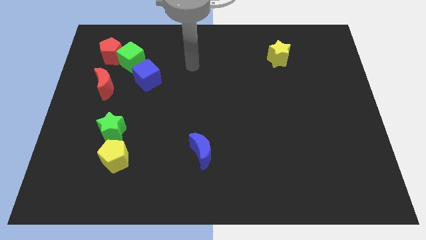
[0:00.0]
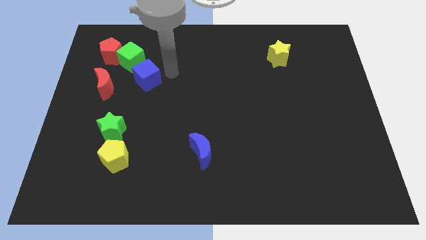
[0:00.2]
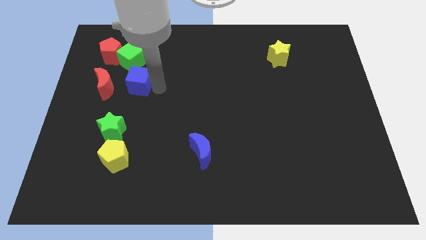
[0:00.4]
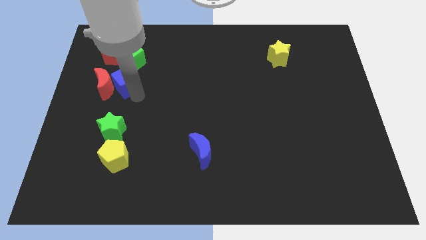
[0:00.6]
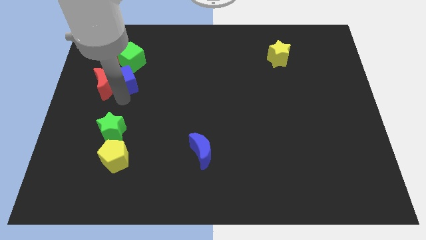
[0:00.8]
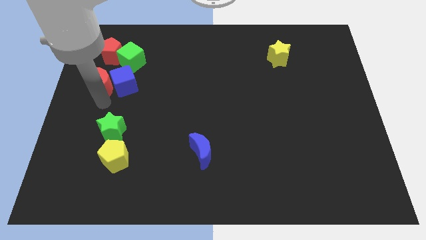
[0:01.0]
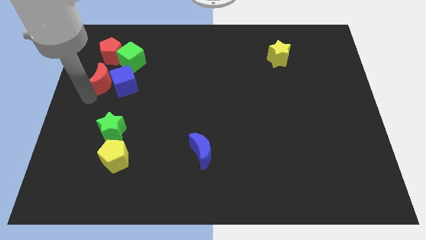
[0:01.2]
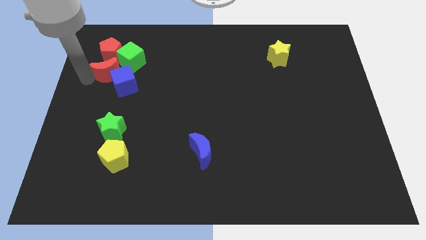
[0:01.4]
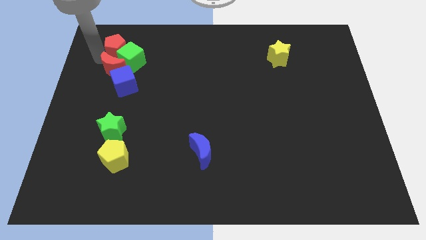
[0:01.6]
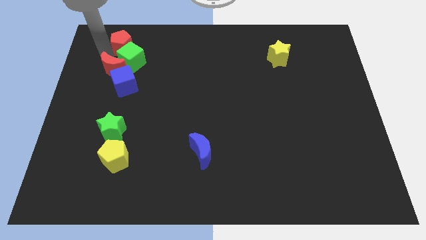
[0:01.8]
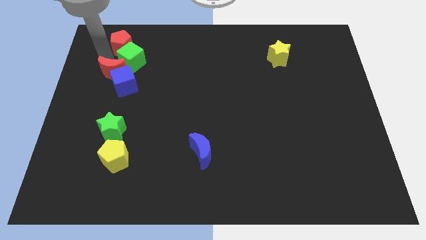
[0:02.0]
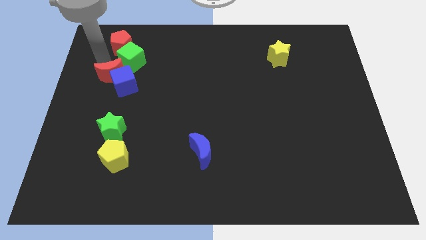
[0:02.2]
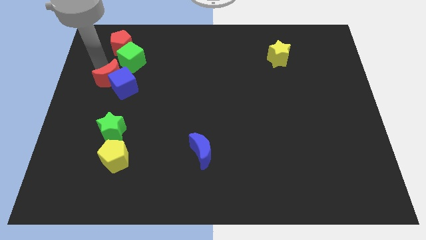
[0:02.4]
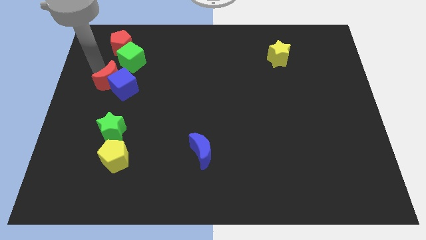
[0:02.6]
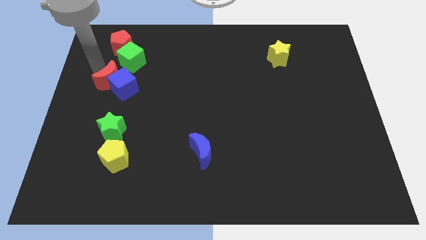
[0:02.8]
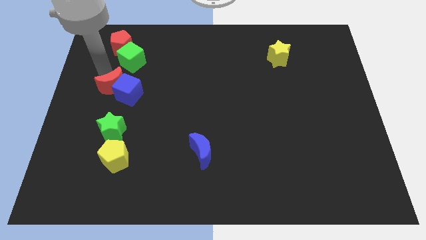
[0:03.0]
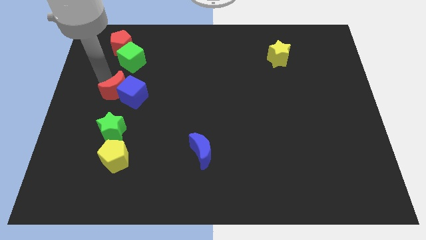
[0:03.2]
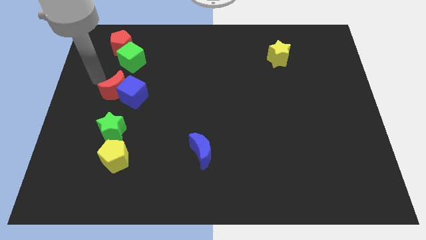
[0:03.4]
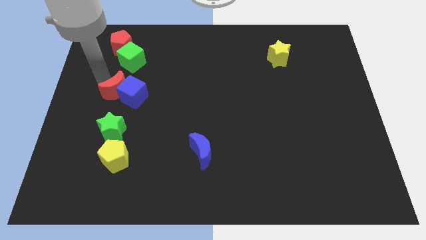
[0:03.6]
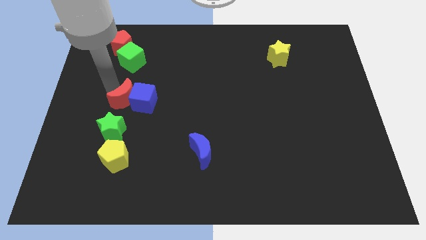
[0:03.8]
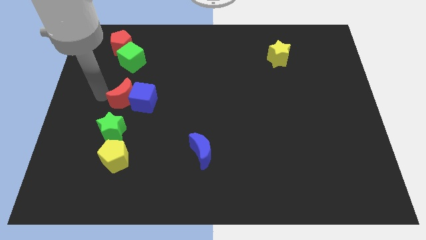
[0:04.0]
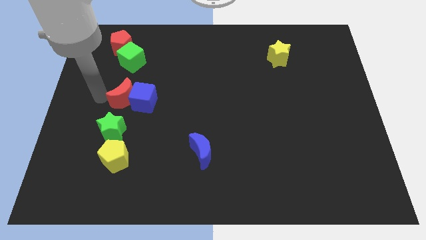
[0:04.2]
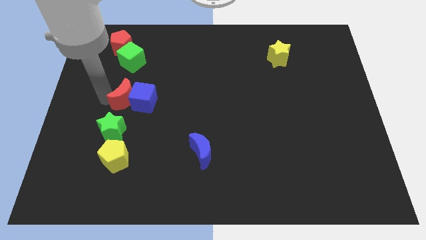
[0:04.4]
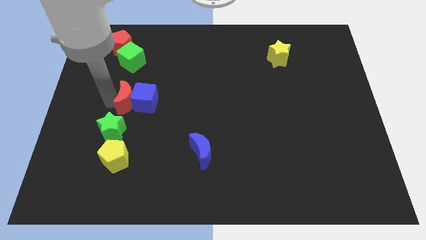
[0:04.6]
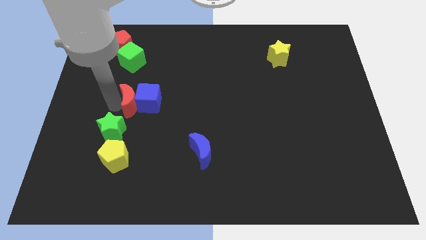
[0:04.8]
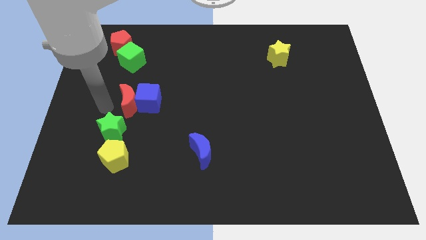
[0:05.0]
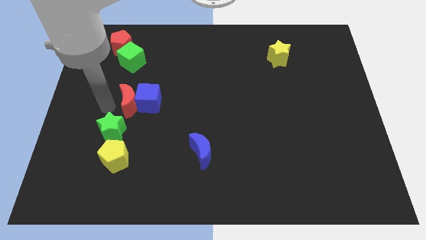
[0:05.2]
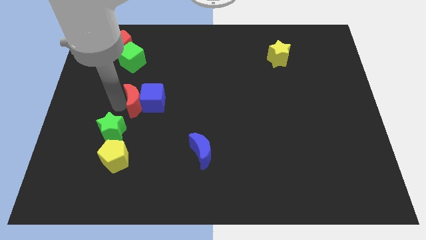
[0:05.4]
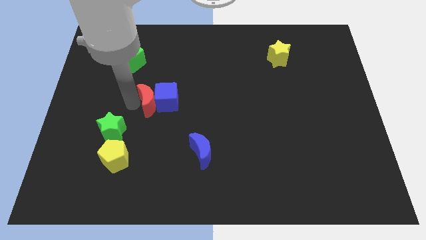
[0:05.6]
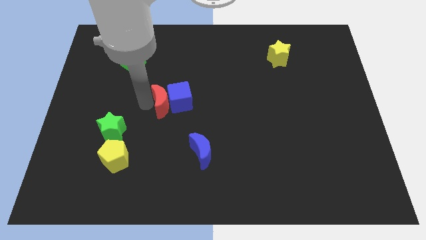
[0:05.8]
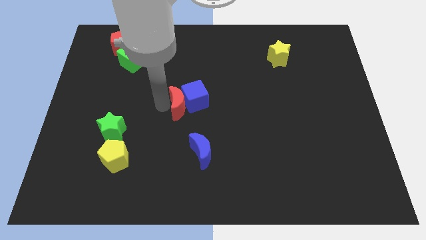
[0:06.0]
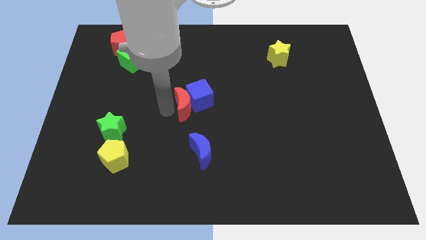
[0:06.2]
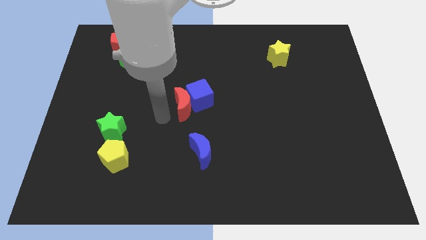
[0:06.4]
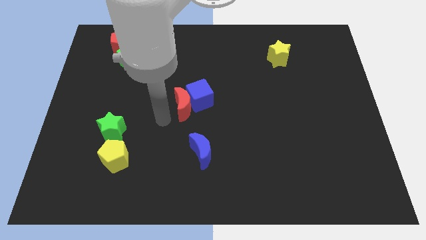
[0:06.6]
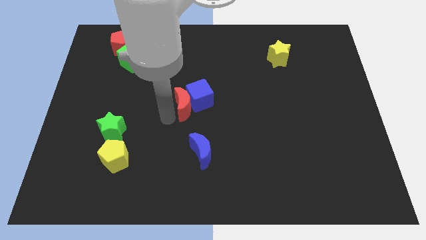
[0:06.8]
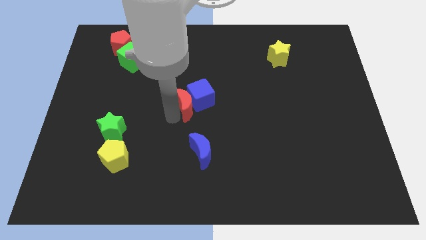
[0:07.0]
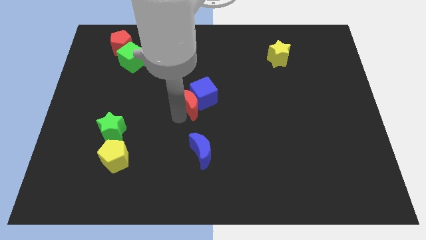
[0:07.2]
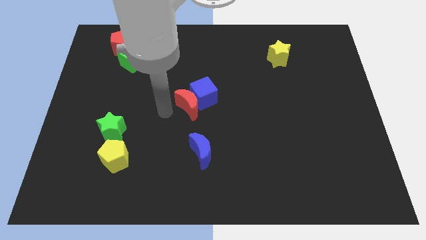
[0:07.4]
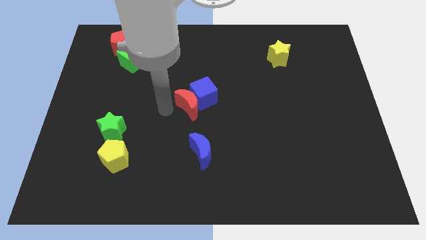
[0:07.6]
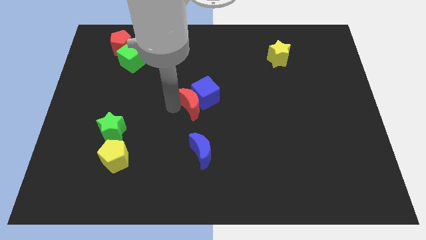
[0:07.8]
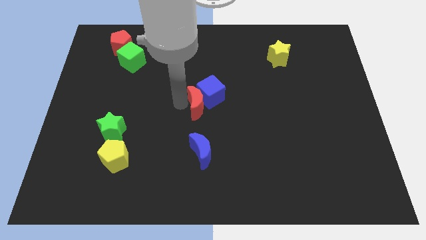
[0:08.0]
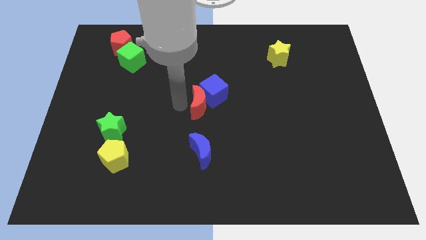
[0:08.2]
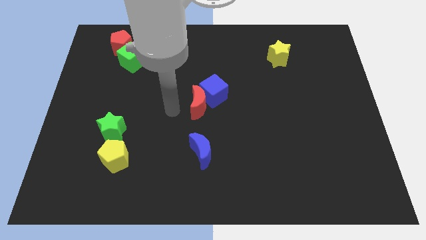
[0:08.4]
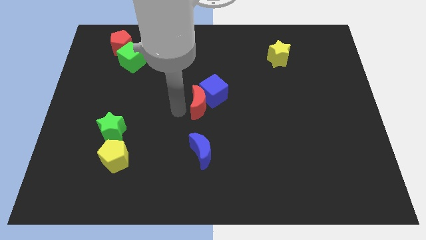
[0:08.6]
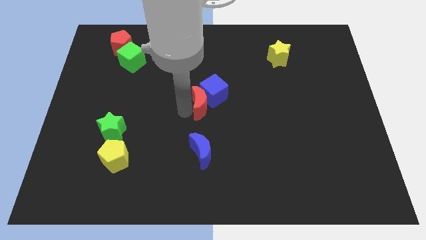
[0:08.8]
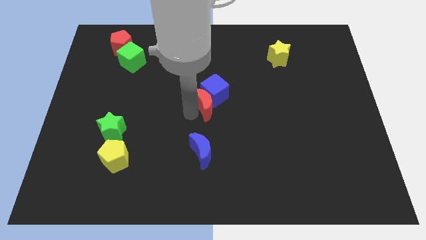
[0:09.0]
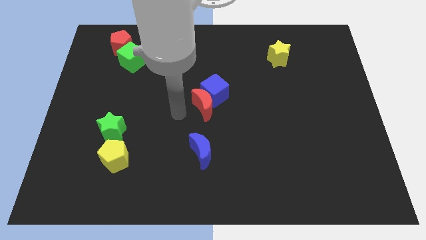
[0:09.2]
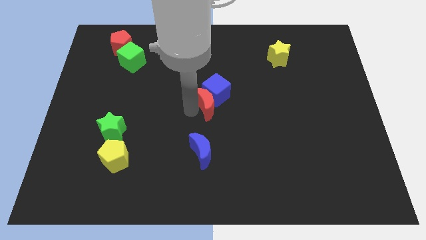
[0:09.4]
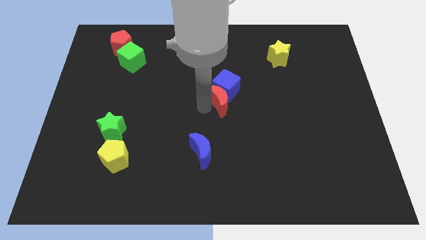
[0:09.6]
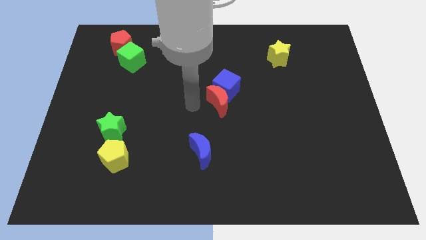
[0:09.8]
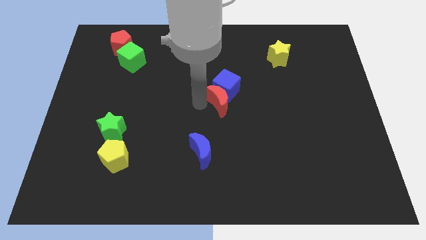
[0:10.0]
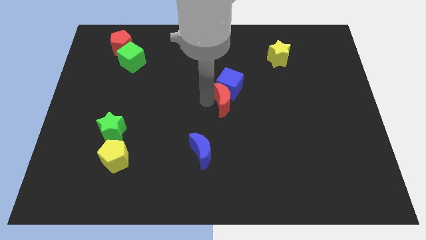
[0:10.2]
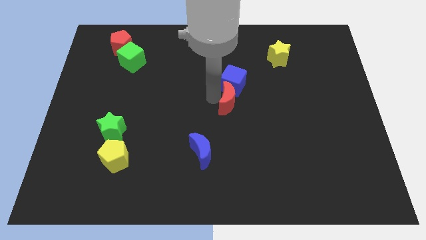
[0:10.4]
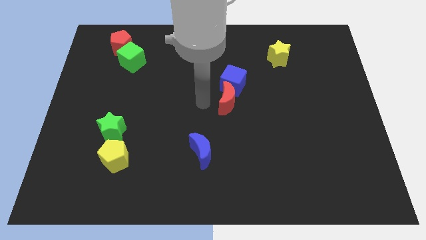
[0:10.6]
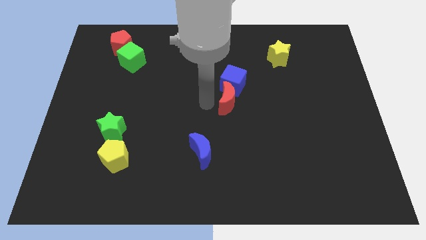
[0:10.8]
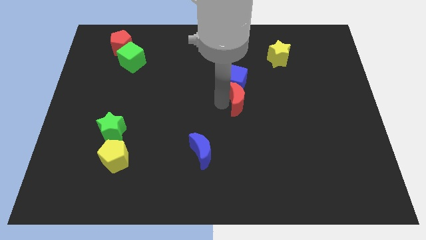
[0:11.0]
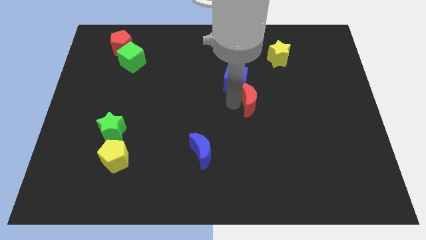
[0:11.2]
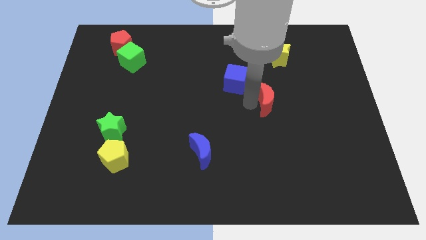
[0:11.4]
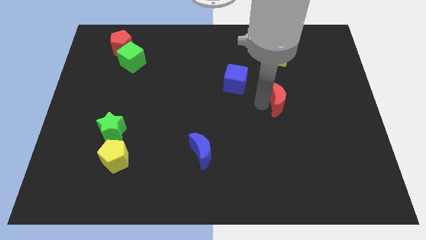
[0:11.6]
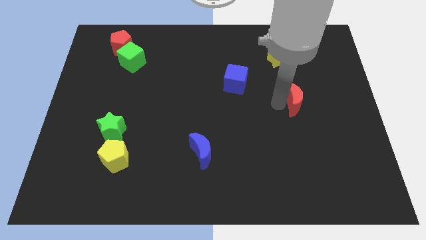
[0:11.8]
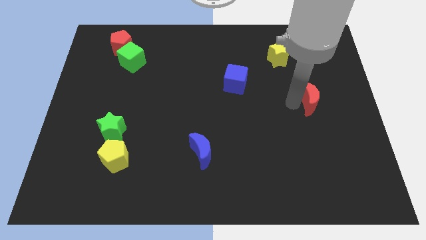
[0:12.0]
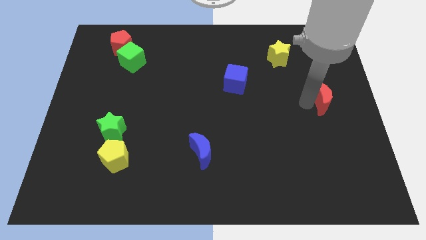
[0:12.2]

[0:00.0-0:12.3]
slide the red moon to the right side of the board

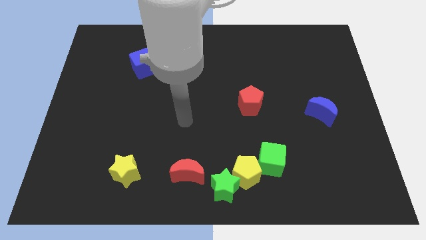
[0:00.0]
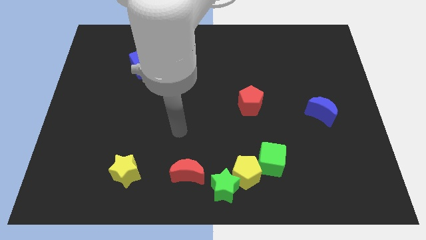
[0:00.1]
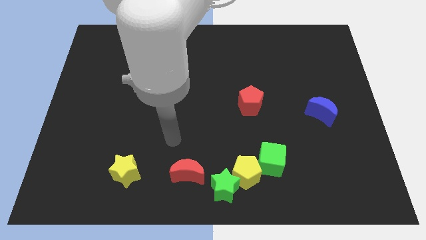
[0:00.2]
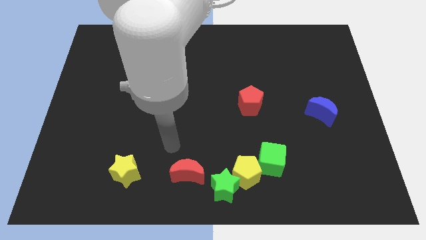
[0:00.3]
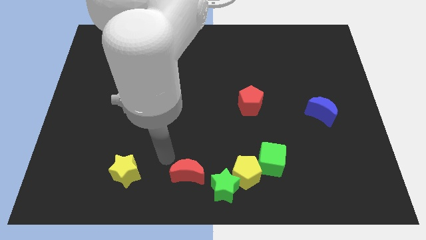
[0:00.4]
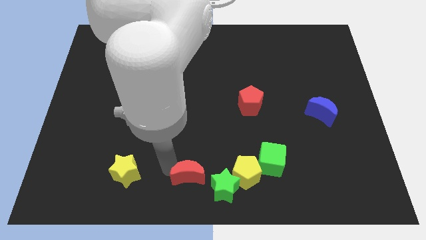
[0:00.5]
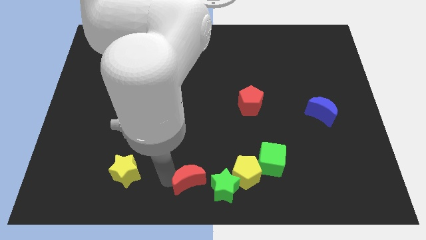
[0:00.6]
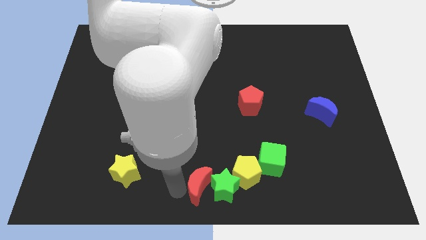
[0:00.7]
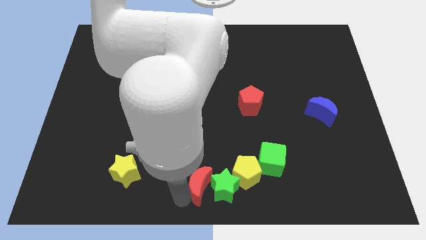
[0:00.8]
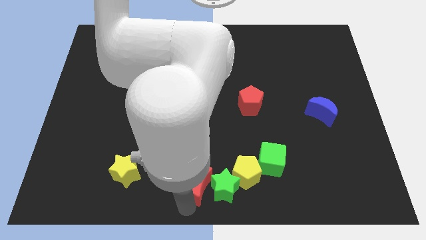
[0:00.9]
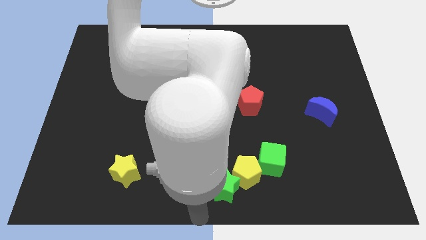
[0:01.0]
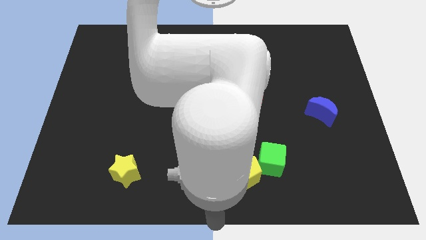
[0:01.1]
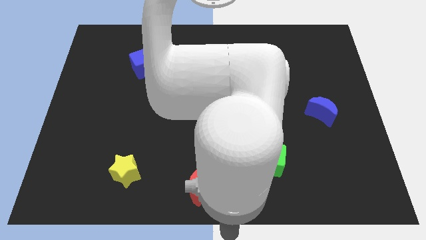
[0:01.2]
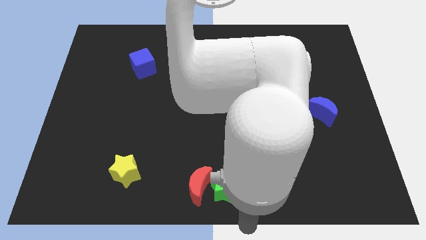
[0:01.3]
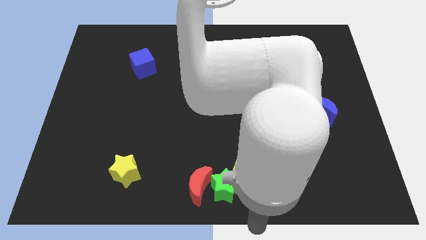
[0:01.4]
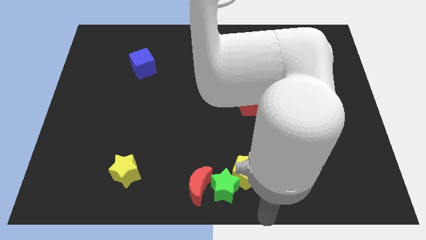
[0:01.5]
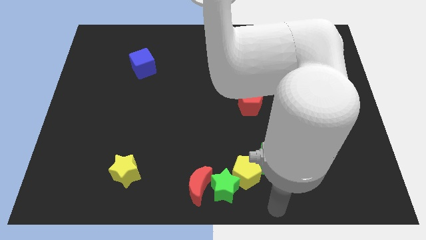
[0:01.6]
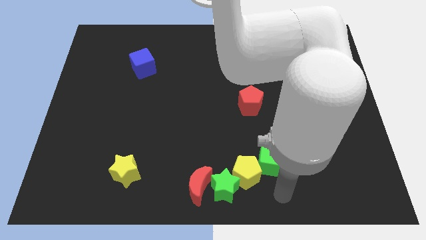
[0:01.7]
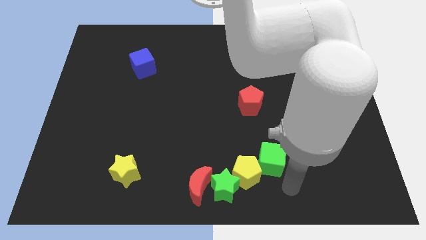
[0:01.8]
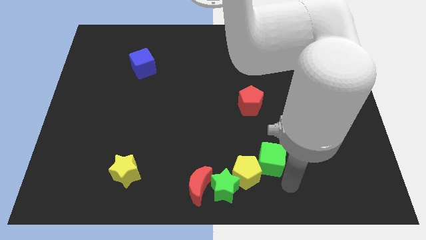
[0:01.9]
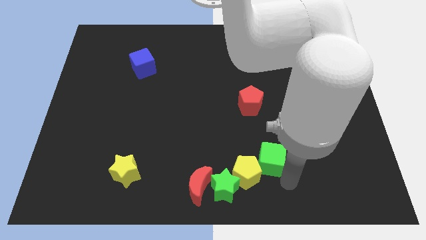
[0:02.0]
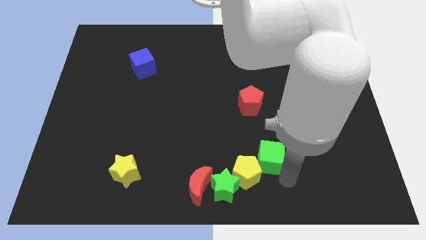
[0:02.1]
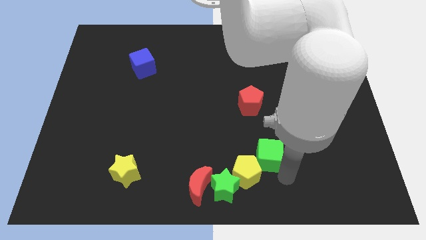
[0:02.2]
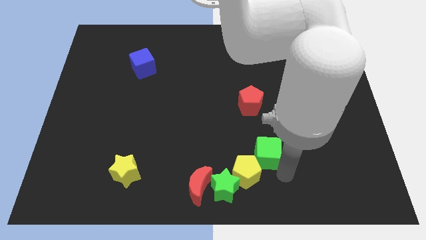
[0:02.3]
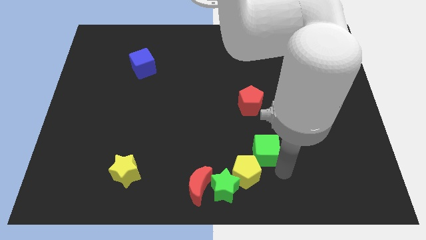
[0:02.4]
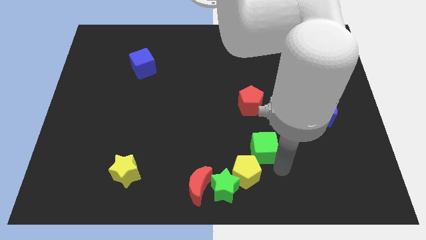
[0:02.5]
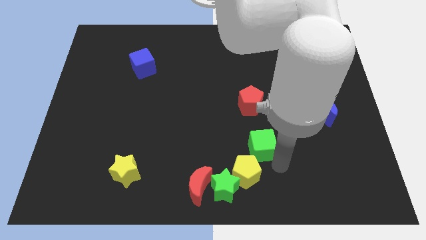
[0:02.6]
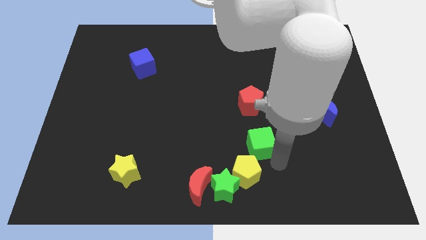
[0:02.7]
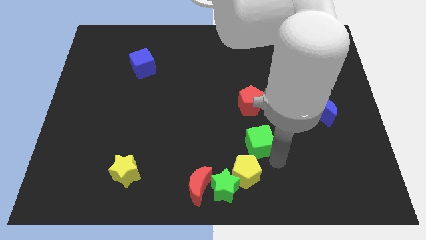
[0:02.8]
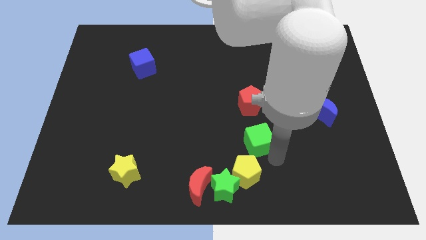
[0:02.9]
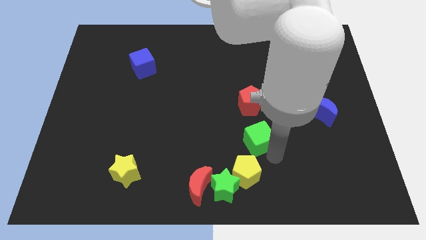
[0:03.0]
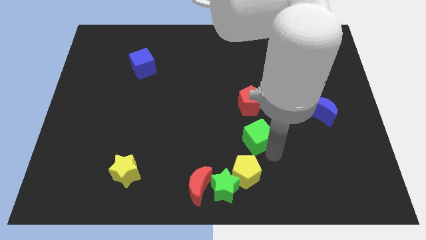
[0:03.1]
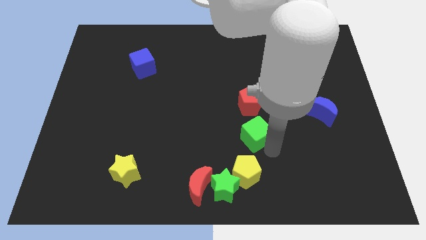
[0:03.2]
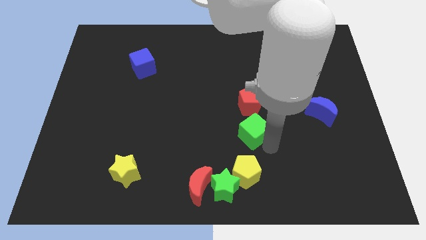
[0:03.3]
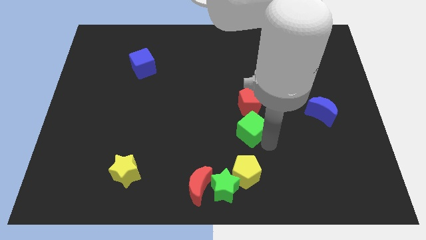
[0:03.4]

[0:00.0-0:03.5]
move the green cube to the center of the board
